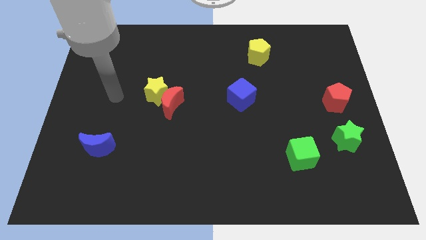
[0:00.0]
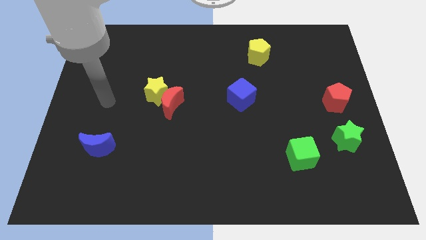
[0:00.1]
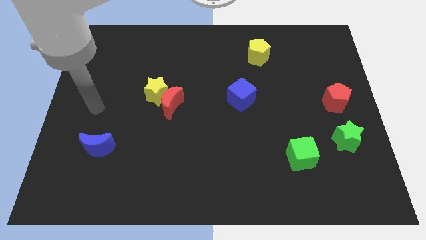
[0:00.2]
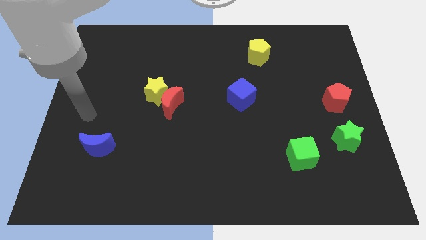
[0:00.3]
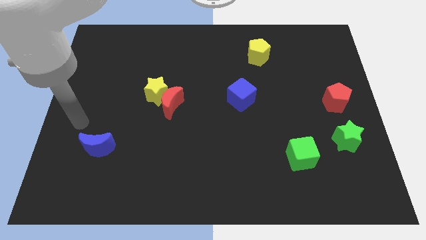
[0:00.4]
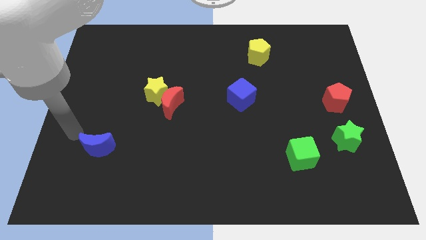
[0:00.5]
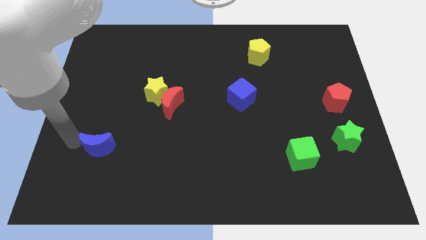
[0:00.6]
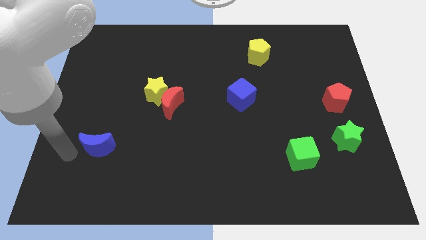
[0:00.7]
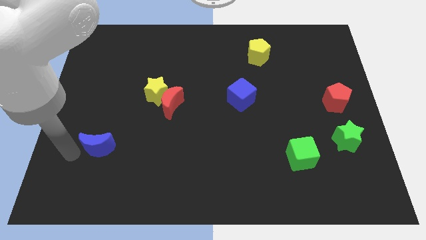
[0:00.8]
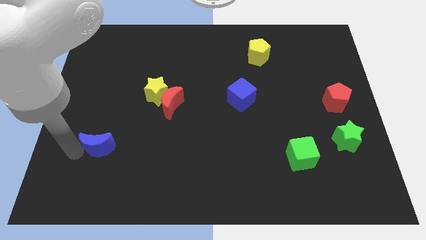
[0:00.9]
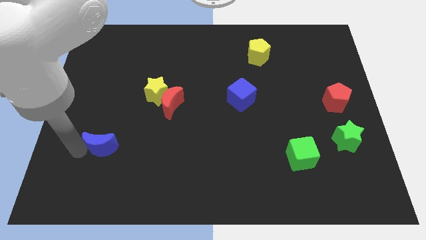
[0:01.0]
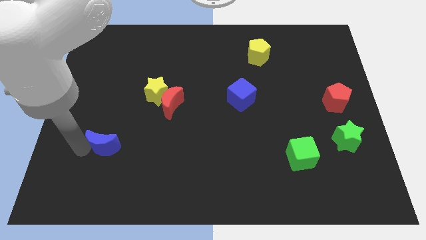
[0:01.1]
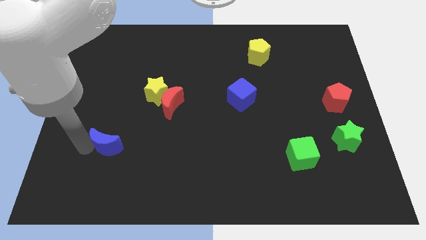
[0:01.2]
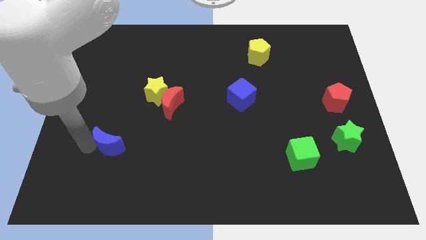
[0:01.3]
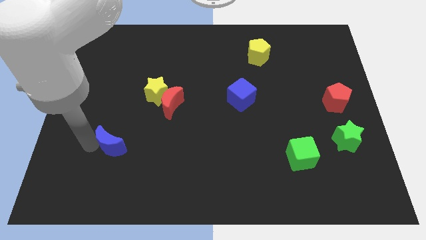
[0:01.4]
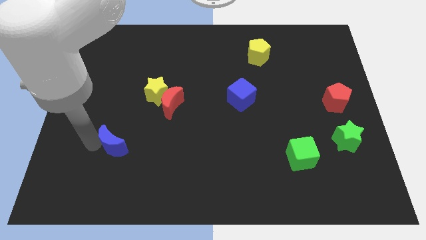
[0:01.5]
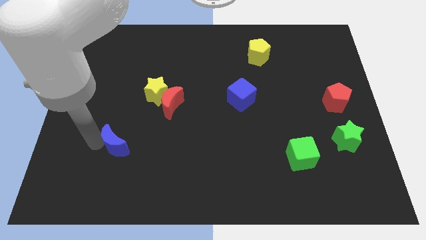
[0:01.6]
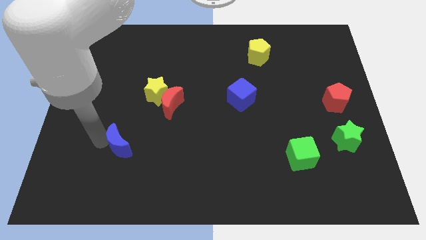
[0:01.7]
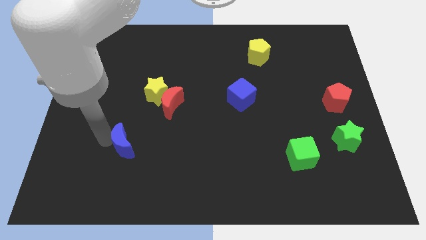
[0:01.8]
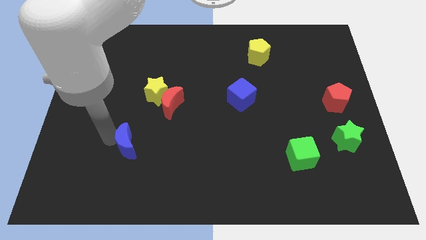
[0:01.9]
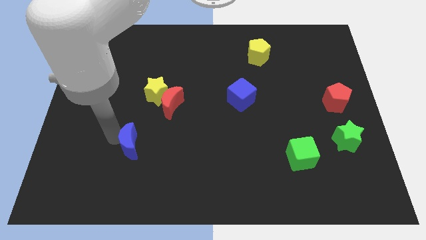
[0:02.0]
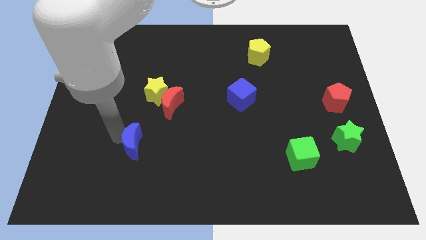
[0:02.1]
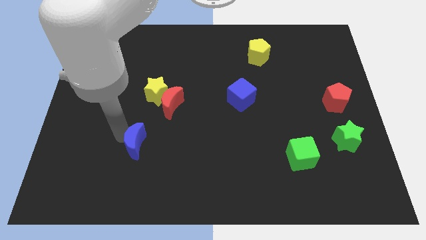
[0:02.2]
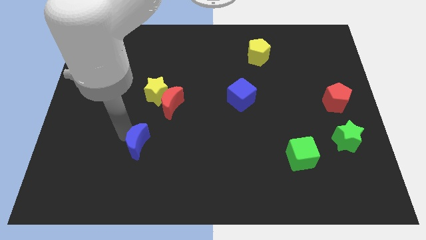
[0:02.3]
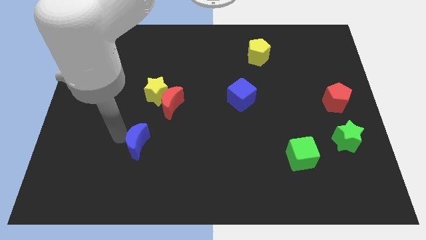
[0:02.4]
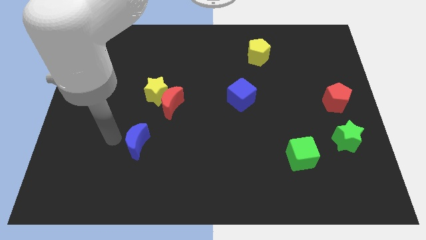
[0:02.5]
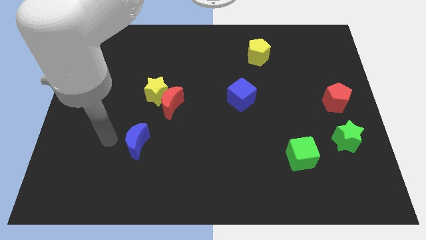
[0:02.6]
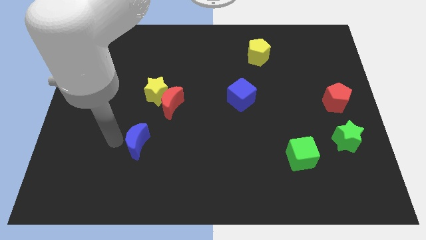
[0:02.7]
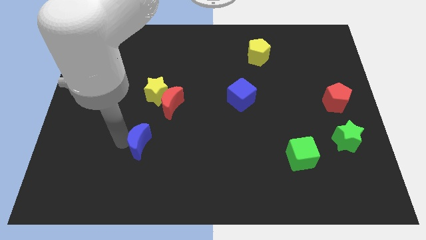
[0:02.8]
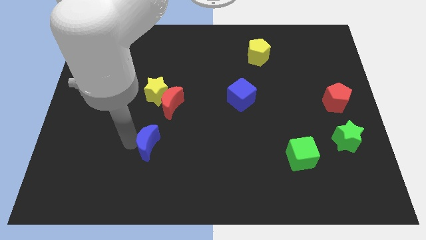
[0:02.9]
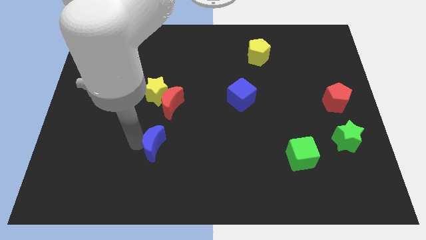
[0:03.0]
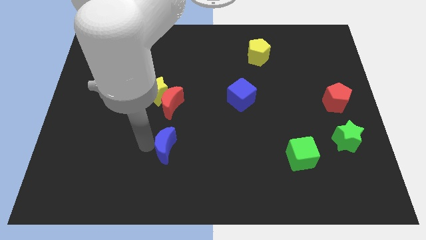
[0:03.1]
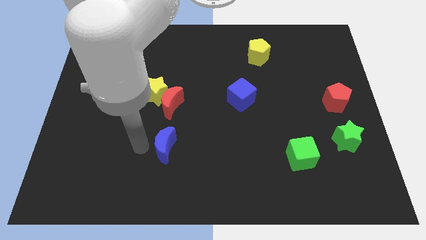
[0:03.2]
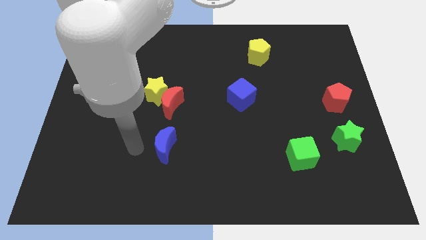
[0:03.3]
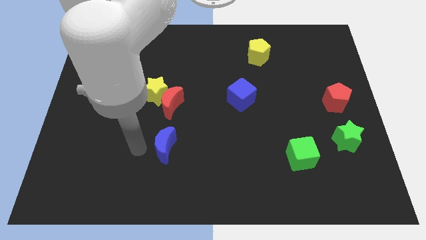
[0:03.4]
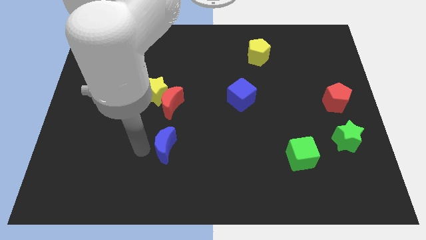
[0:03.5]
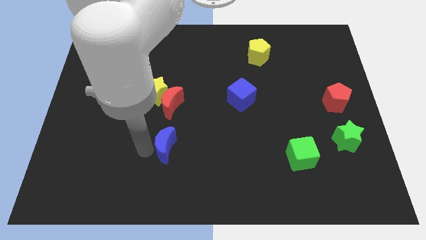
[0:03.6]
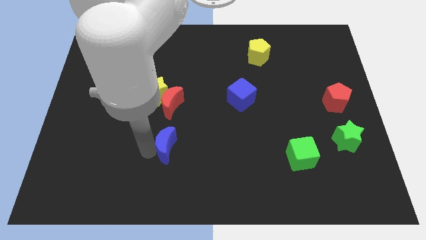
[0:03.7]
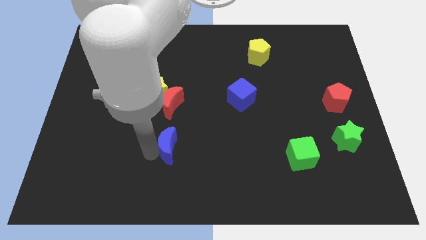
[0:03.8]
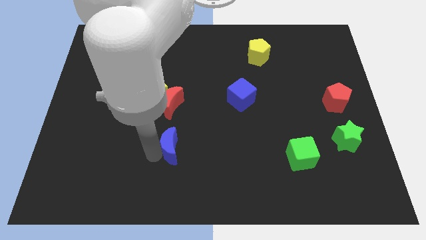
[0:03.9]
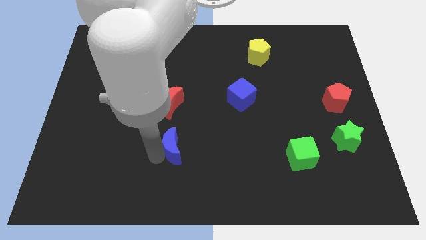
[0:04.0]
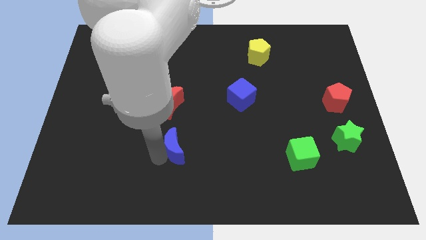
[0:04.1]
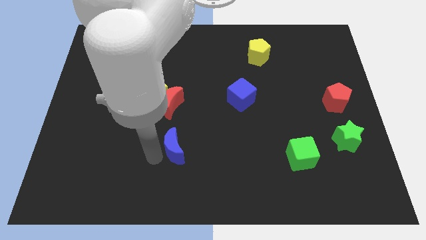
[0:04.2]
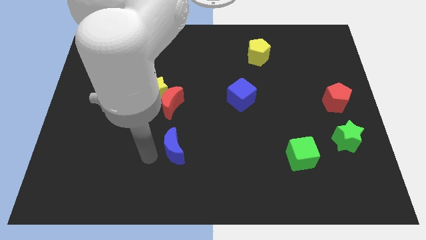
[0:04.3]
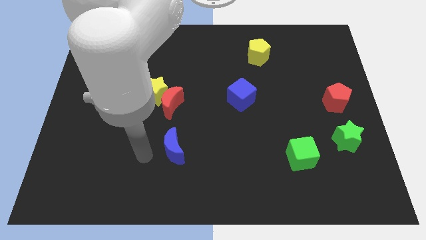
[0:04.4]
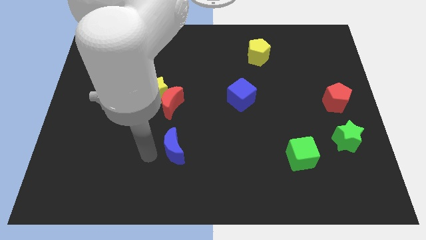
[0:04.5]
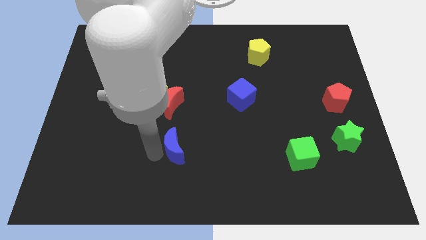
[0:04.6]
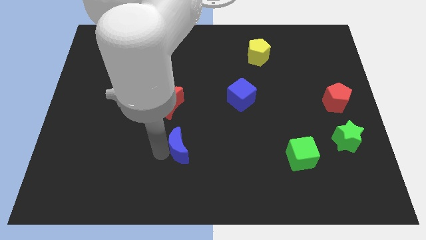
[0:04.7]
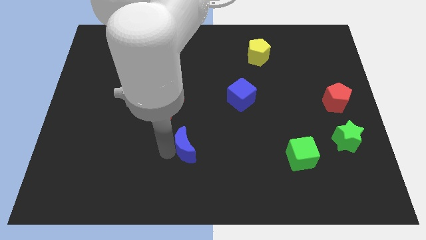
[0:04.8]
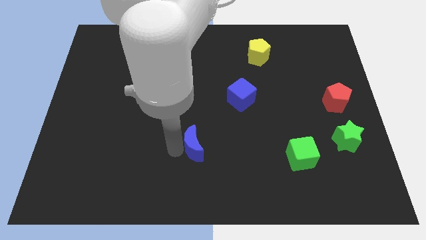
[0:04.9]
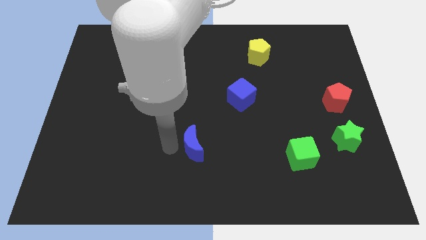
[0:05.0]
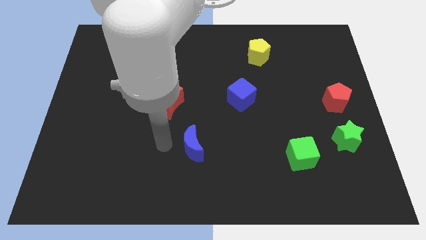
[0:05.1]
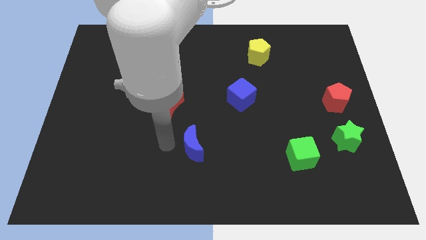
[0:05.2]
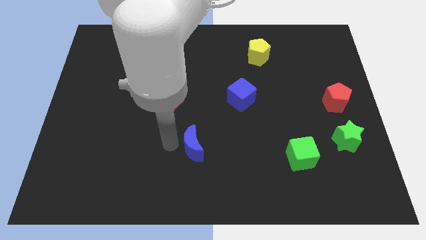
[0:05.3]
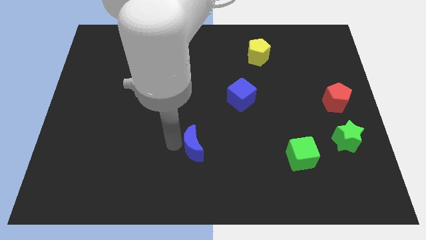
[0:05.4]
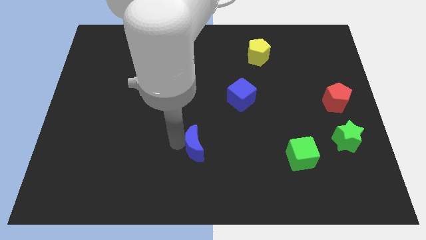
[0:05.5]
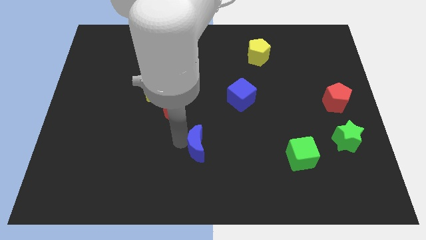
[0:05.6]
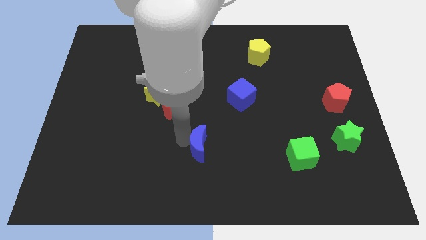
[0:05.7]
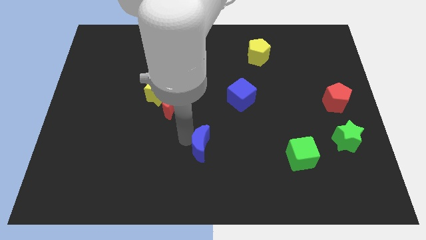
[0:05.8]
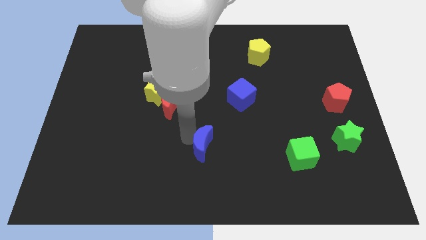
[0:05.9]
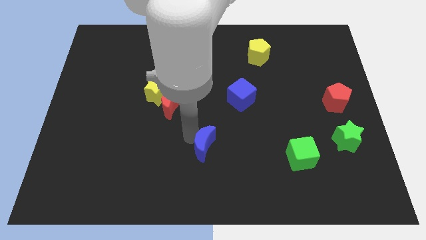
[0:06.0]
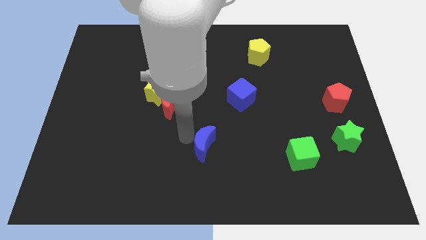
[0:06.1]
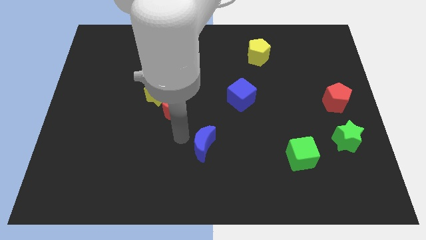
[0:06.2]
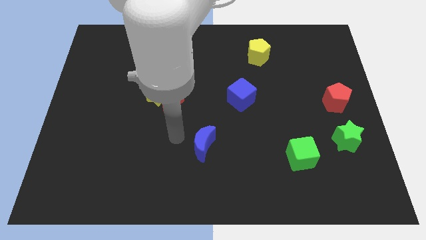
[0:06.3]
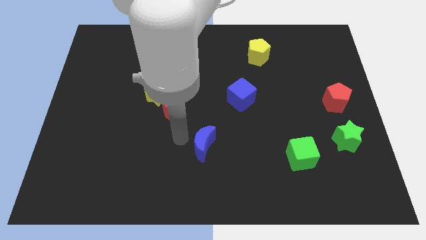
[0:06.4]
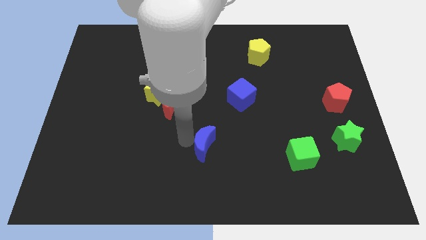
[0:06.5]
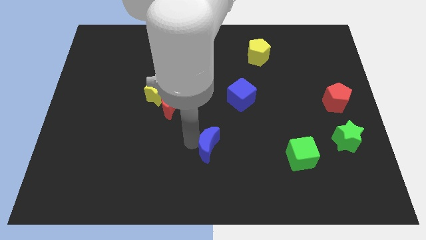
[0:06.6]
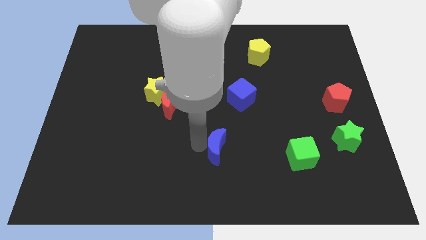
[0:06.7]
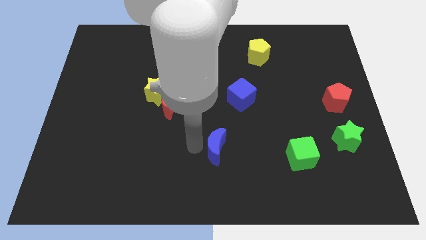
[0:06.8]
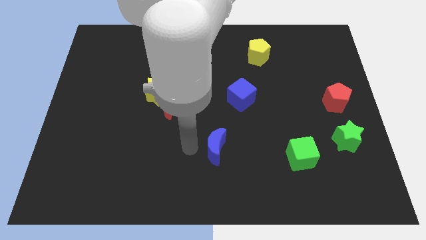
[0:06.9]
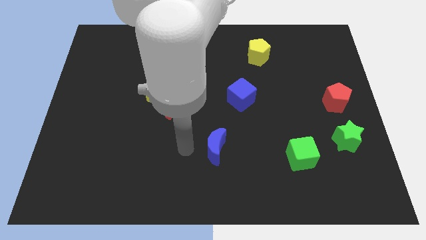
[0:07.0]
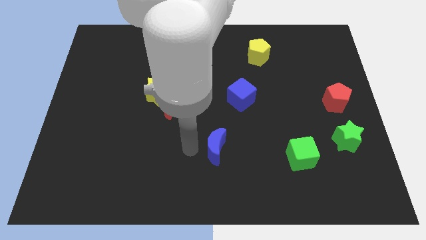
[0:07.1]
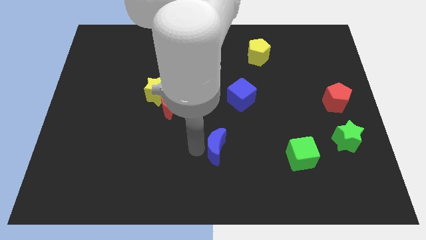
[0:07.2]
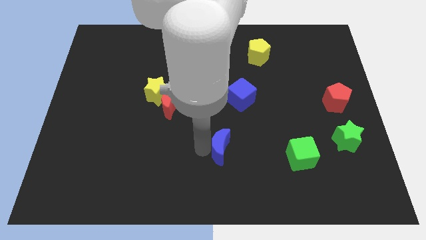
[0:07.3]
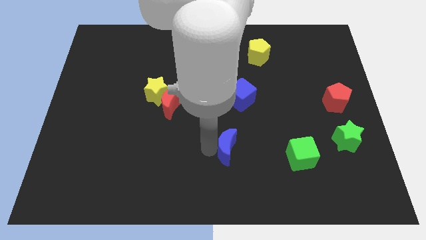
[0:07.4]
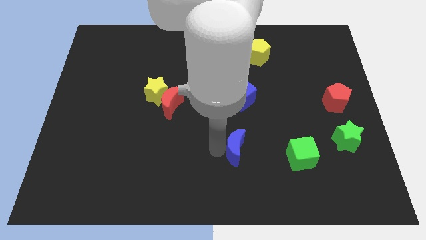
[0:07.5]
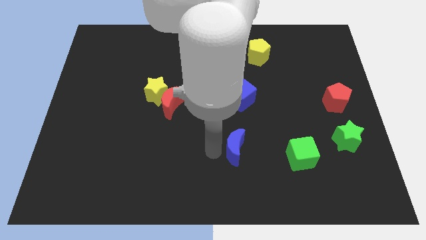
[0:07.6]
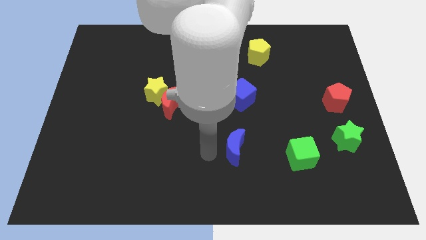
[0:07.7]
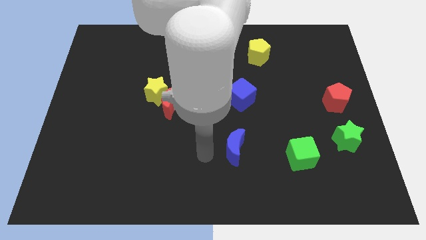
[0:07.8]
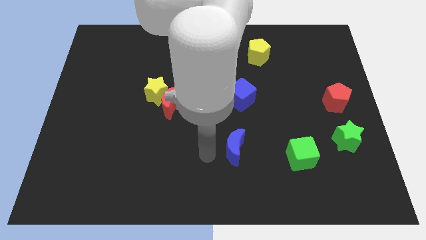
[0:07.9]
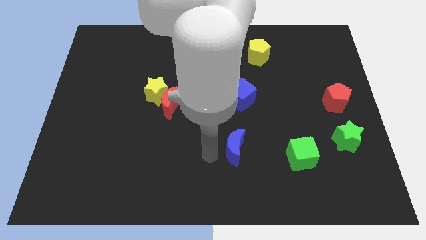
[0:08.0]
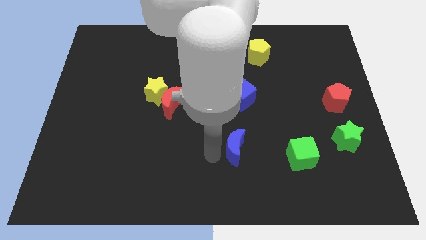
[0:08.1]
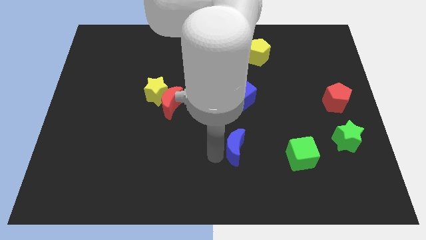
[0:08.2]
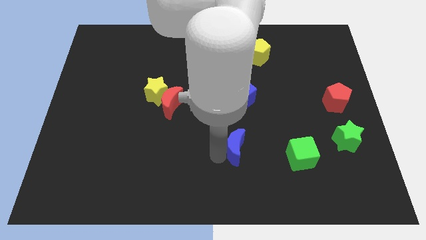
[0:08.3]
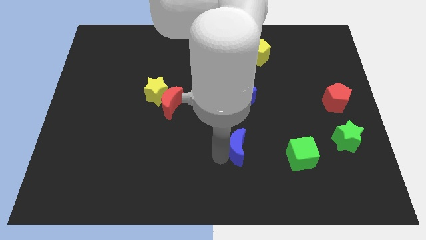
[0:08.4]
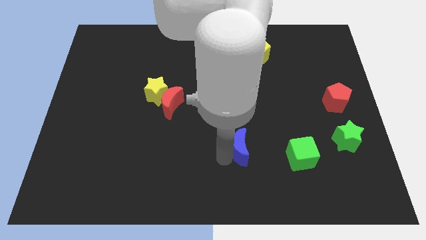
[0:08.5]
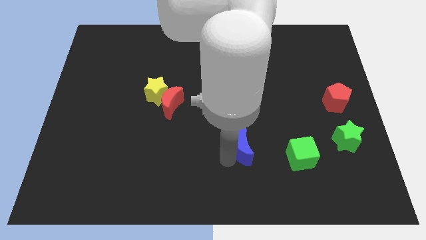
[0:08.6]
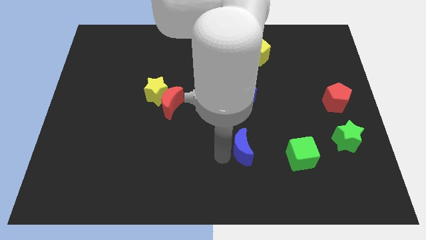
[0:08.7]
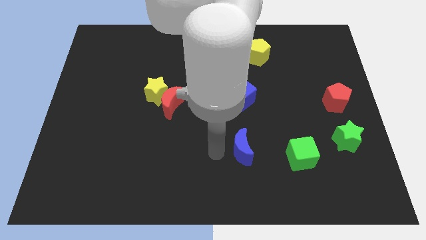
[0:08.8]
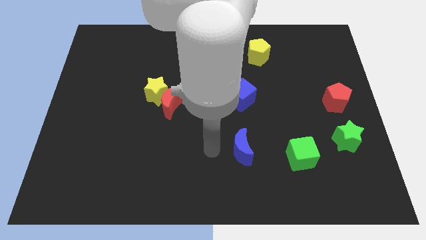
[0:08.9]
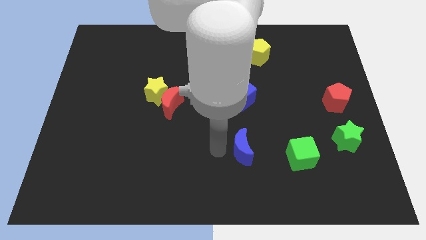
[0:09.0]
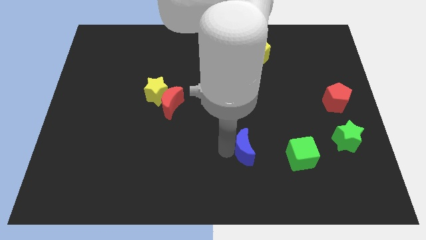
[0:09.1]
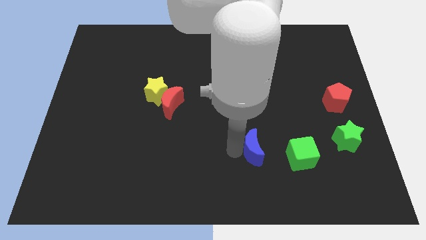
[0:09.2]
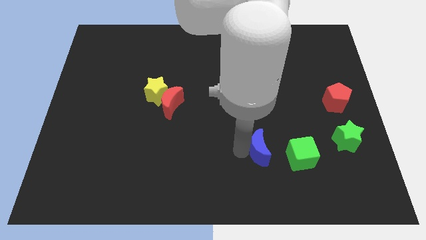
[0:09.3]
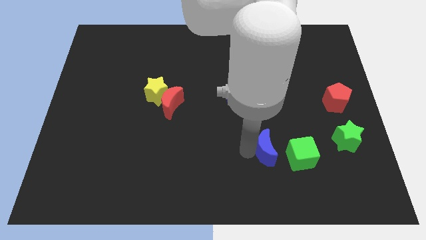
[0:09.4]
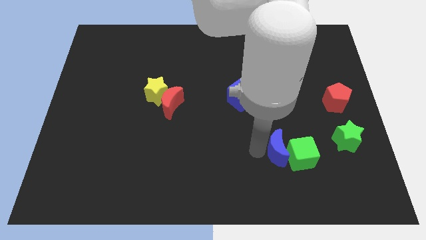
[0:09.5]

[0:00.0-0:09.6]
push the blue moon to the green cube
